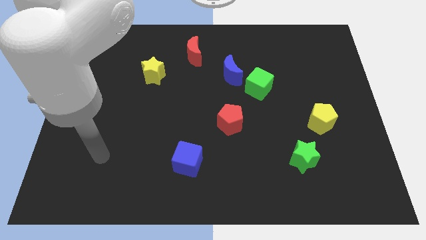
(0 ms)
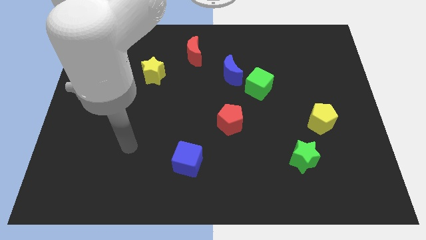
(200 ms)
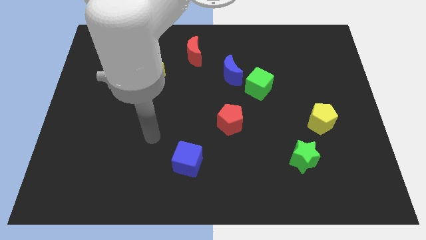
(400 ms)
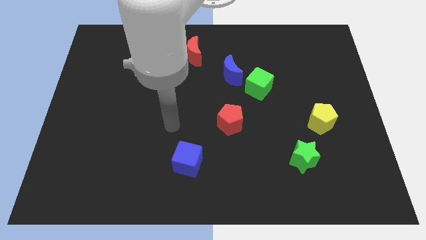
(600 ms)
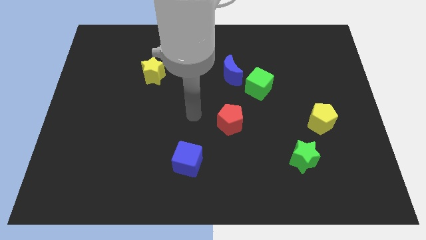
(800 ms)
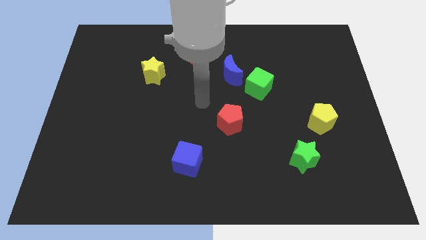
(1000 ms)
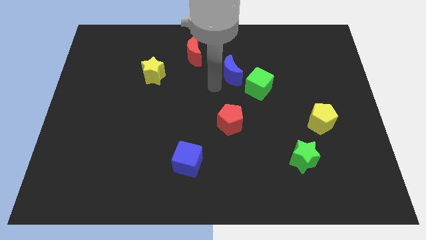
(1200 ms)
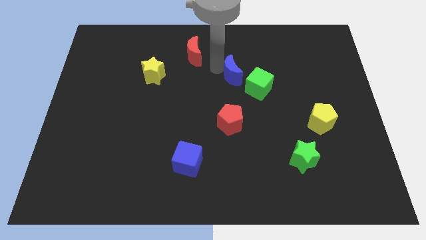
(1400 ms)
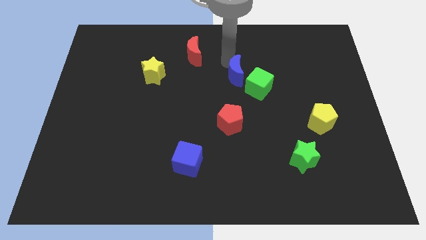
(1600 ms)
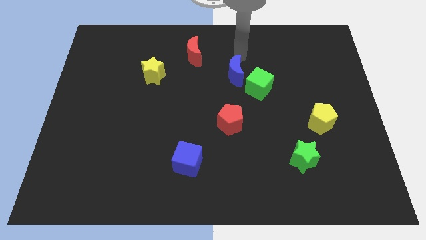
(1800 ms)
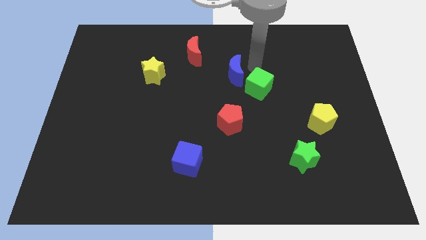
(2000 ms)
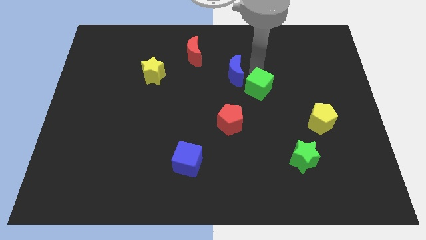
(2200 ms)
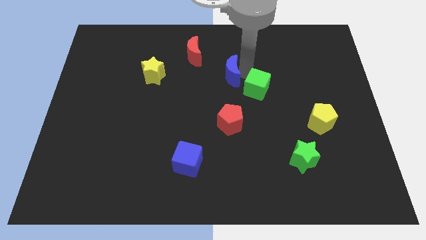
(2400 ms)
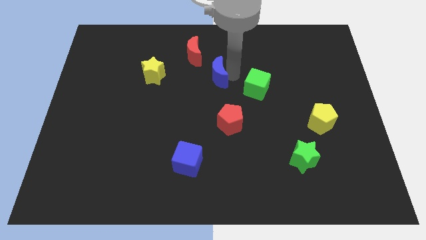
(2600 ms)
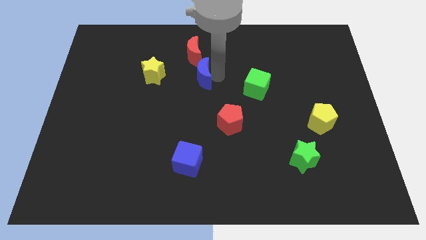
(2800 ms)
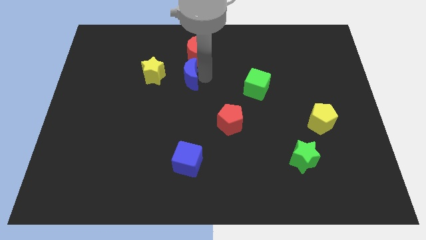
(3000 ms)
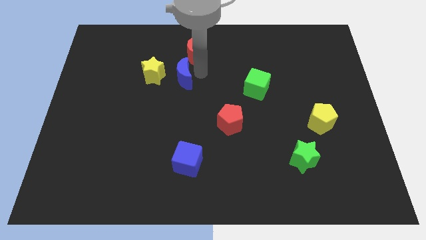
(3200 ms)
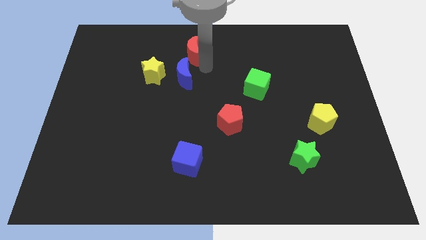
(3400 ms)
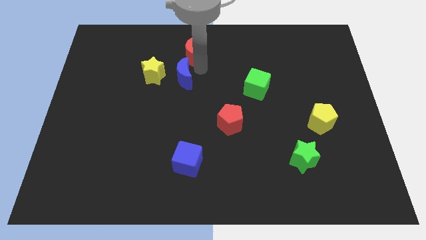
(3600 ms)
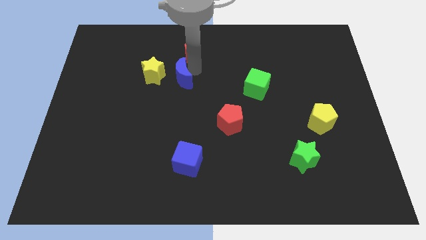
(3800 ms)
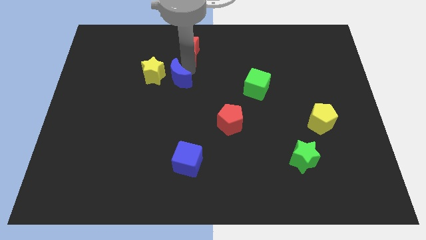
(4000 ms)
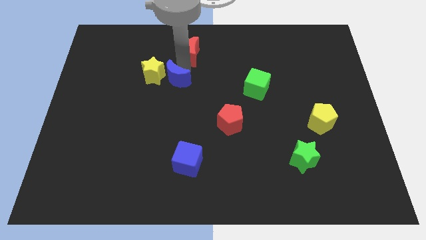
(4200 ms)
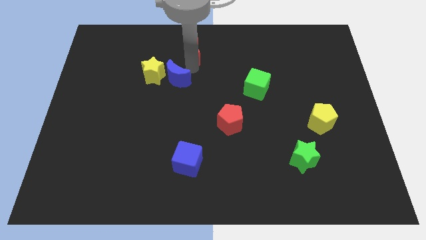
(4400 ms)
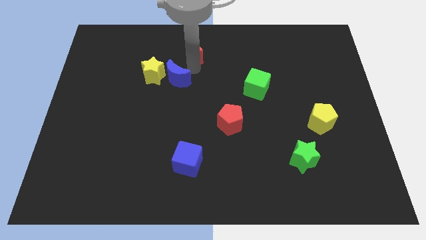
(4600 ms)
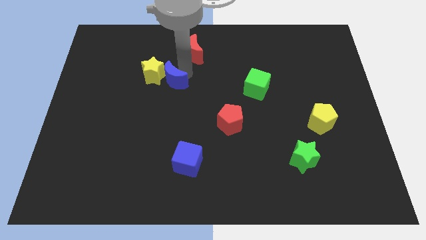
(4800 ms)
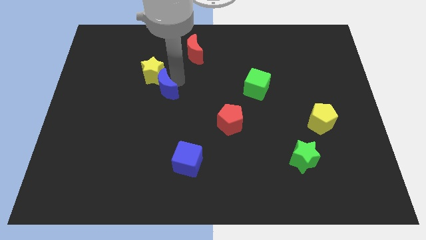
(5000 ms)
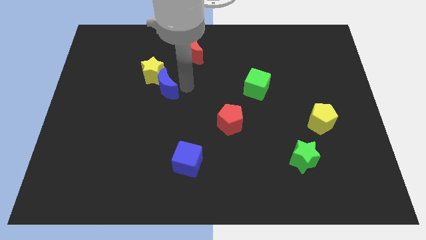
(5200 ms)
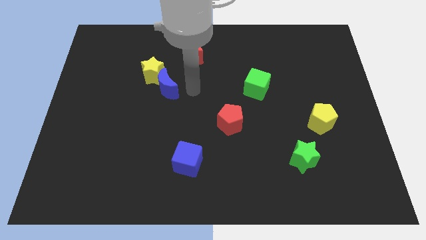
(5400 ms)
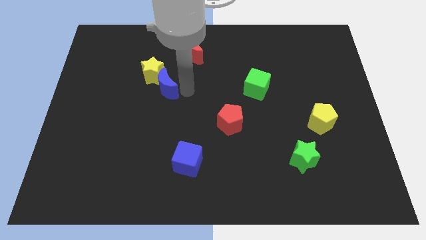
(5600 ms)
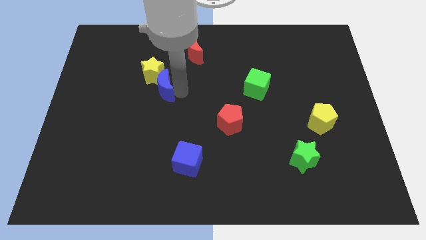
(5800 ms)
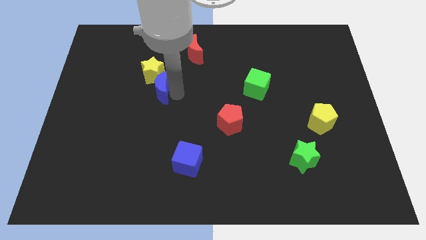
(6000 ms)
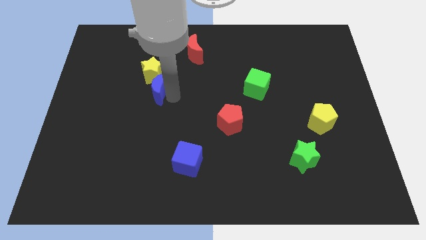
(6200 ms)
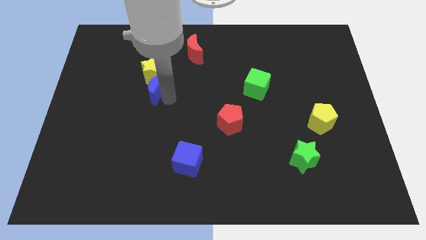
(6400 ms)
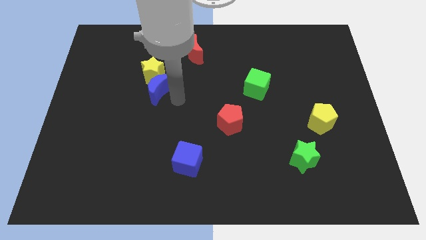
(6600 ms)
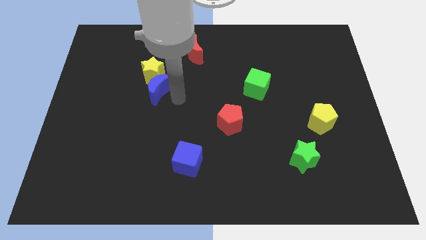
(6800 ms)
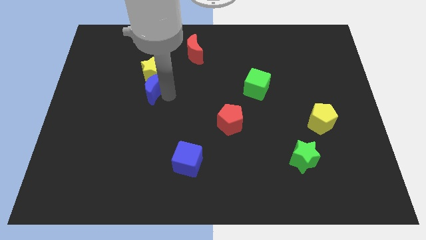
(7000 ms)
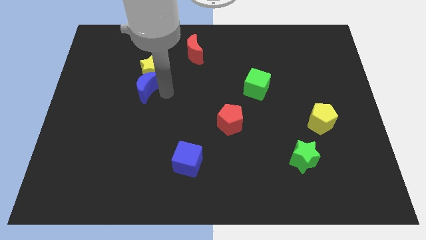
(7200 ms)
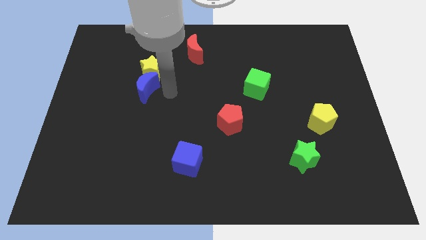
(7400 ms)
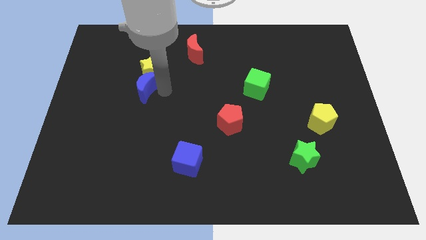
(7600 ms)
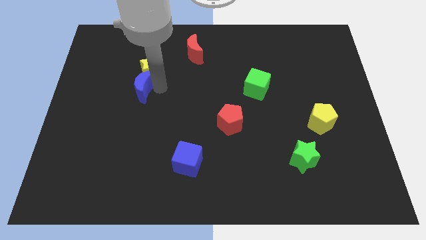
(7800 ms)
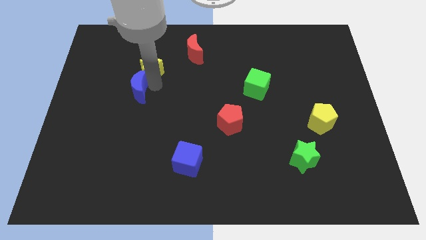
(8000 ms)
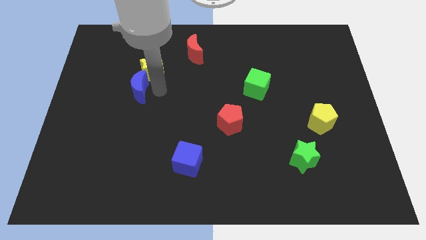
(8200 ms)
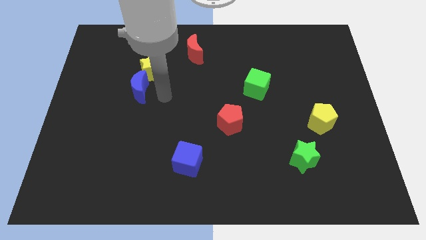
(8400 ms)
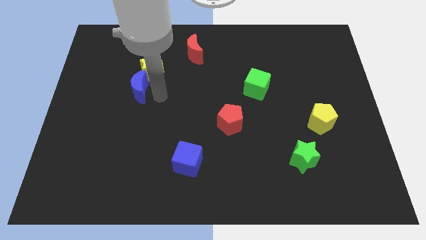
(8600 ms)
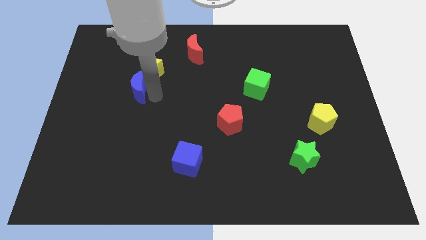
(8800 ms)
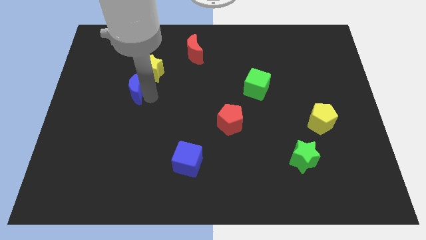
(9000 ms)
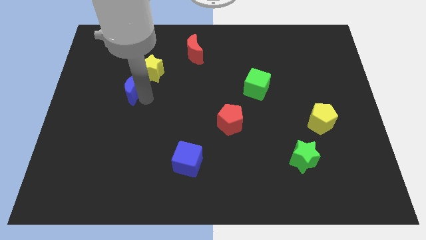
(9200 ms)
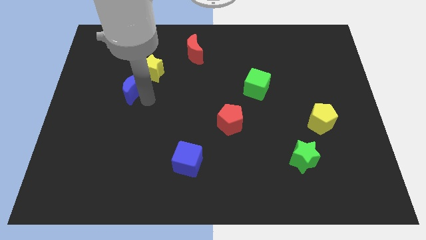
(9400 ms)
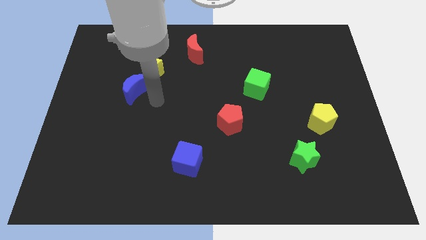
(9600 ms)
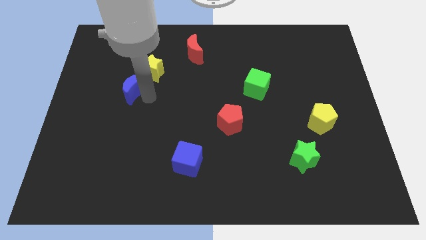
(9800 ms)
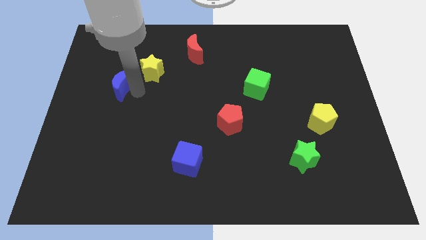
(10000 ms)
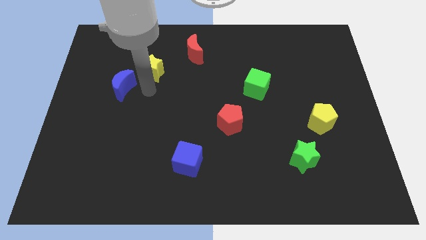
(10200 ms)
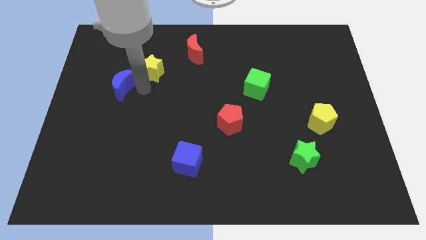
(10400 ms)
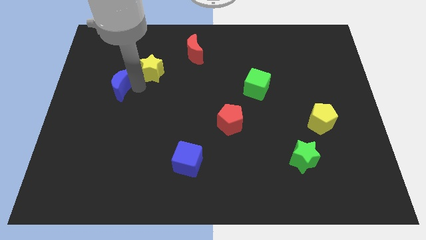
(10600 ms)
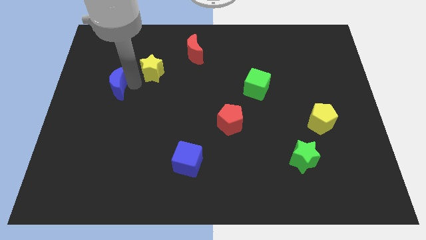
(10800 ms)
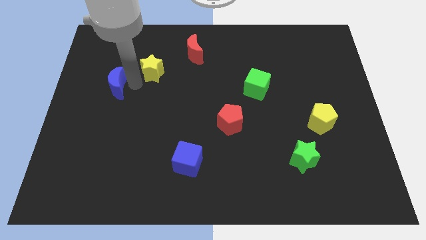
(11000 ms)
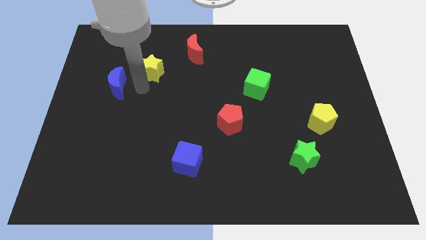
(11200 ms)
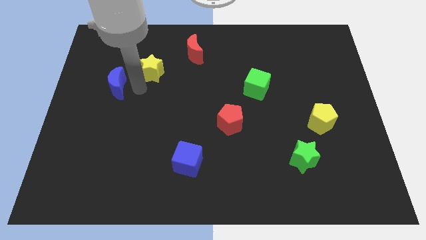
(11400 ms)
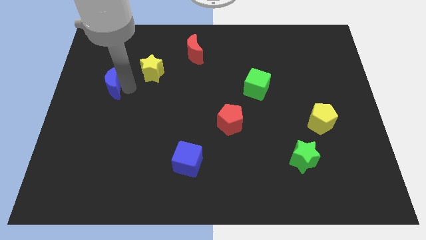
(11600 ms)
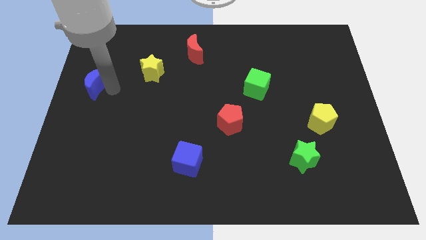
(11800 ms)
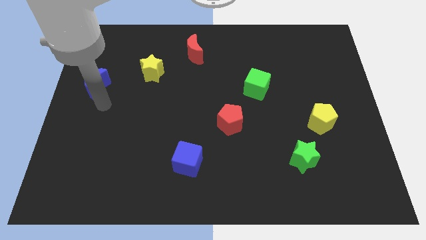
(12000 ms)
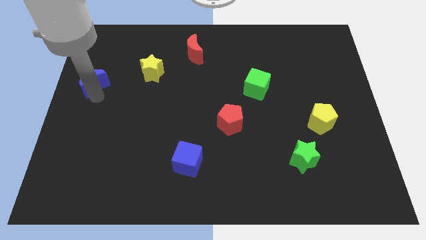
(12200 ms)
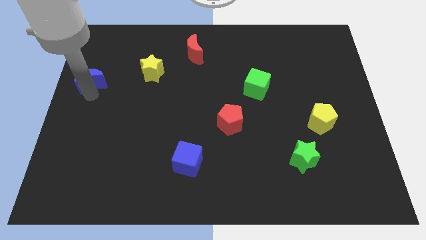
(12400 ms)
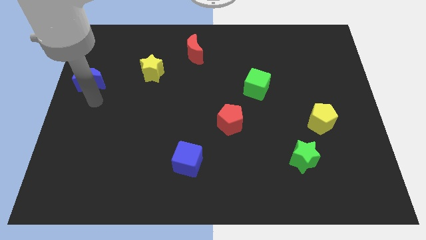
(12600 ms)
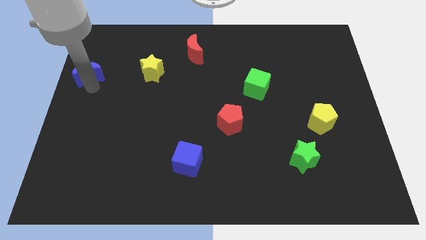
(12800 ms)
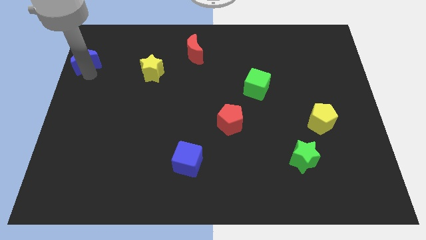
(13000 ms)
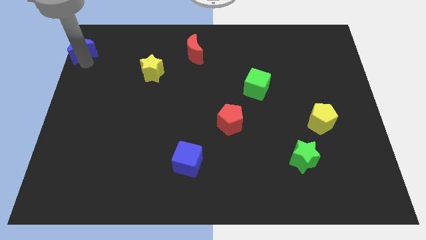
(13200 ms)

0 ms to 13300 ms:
move the blue moon to the upper left corner

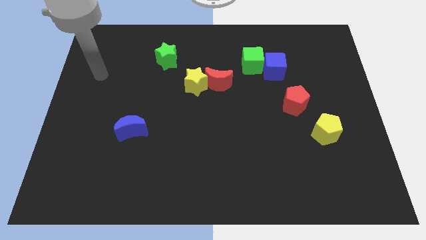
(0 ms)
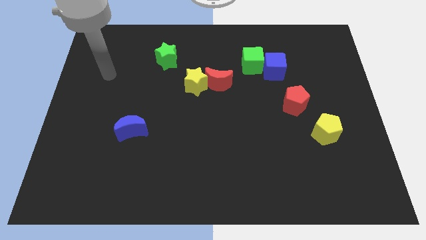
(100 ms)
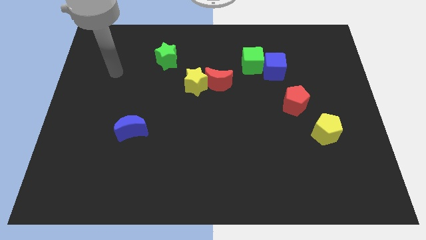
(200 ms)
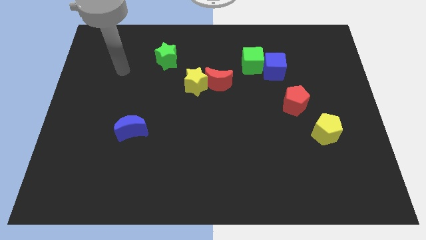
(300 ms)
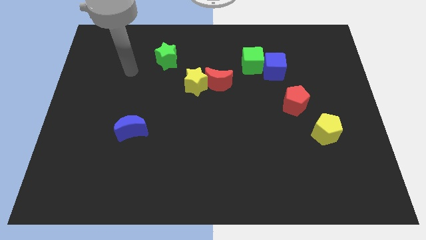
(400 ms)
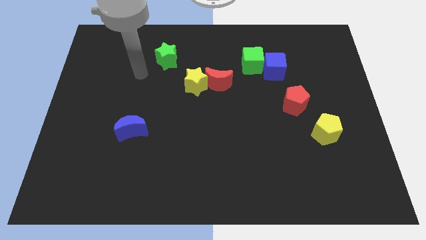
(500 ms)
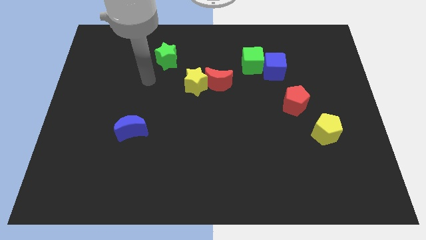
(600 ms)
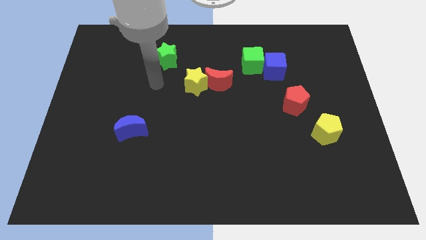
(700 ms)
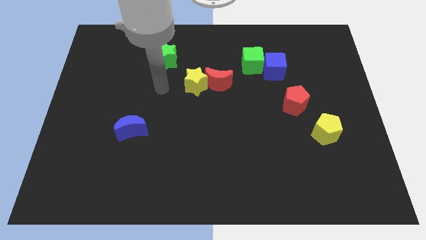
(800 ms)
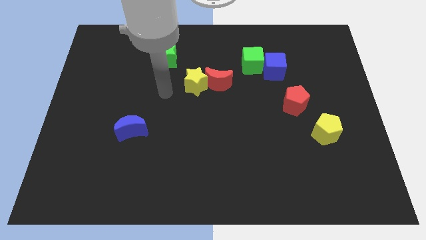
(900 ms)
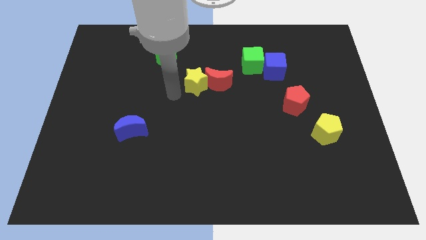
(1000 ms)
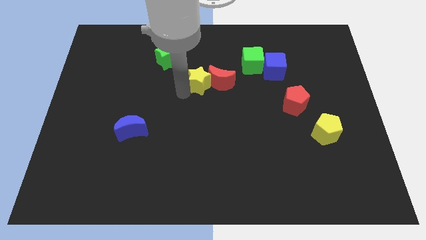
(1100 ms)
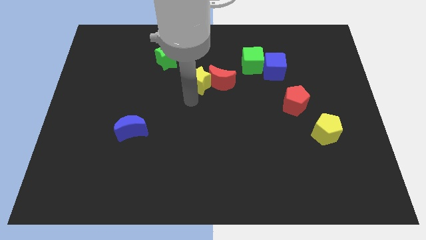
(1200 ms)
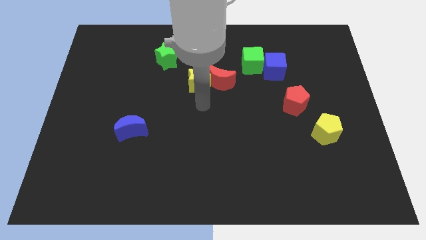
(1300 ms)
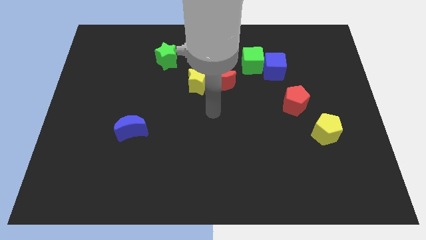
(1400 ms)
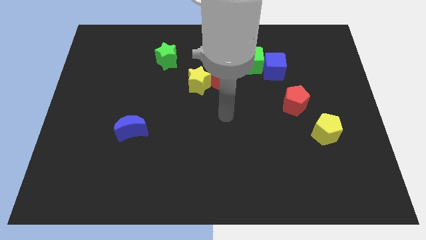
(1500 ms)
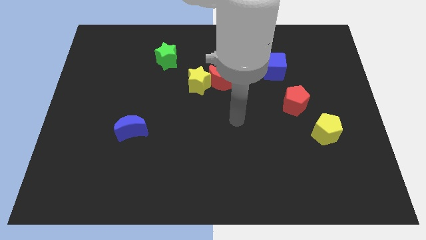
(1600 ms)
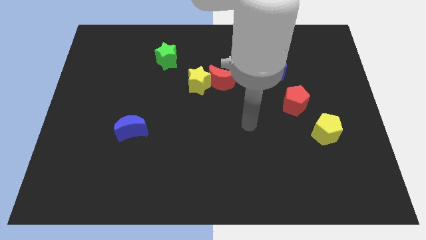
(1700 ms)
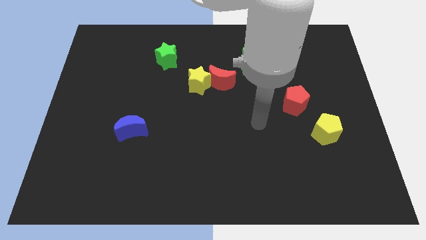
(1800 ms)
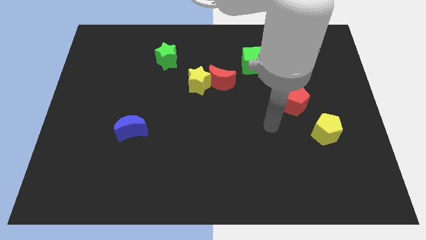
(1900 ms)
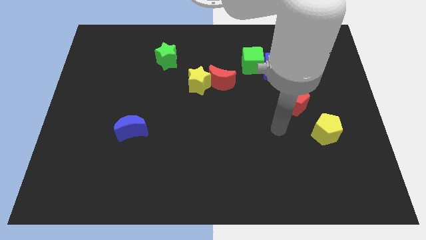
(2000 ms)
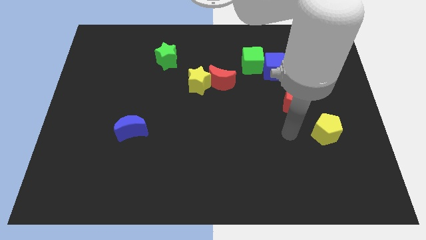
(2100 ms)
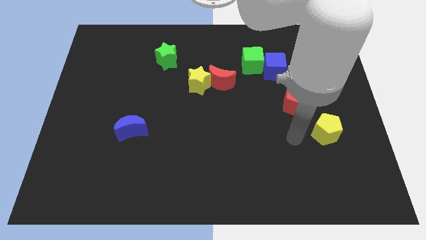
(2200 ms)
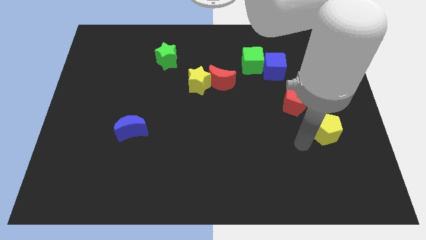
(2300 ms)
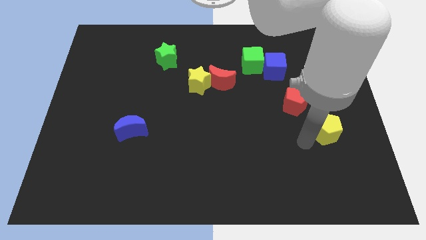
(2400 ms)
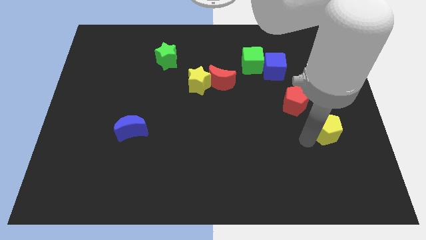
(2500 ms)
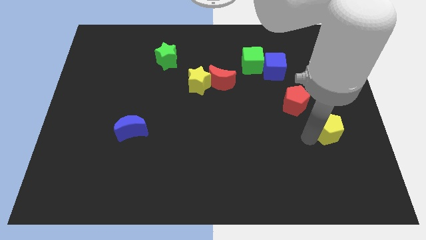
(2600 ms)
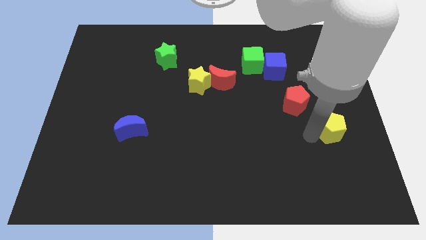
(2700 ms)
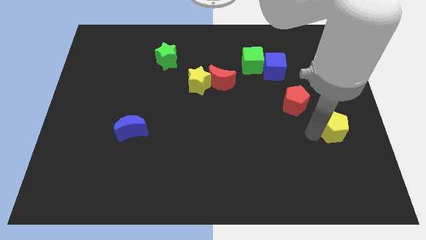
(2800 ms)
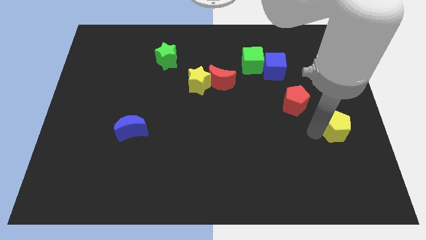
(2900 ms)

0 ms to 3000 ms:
slide the yellow pentagon to the center right
